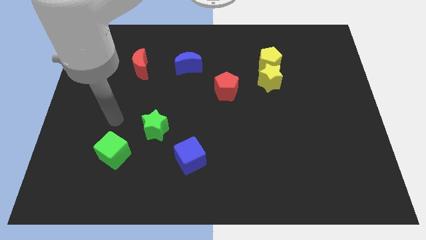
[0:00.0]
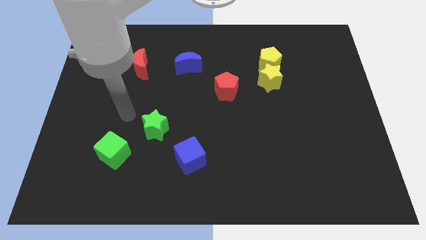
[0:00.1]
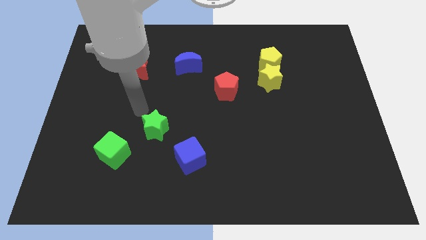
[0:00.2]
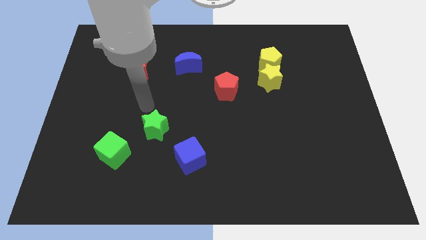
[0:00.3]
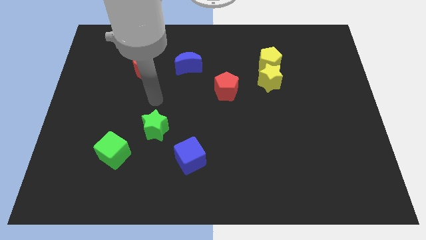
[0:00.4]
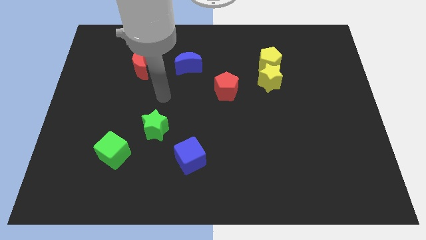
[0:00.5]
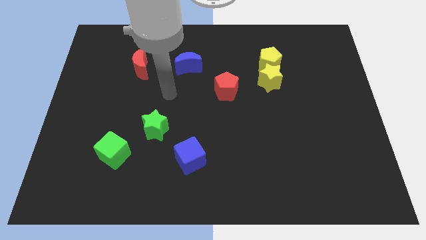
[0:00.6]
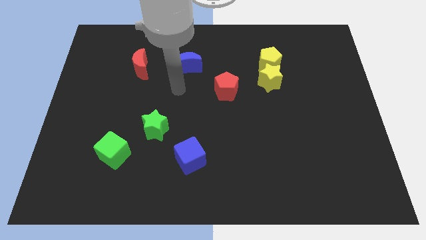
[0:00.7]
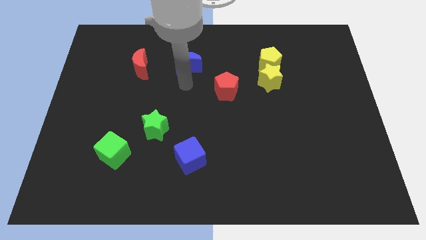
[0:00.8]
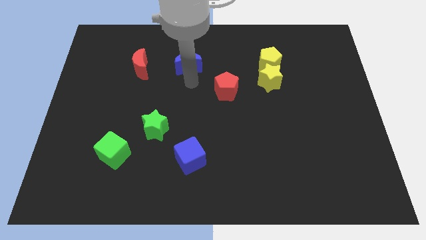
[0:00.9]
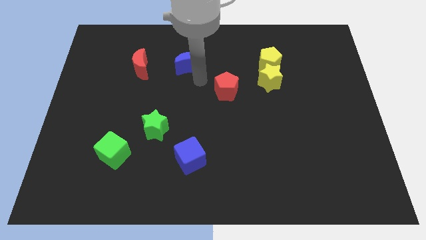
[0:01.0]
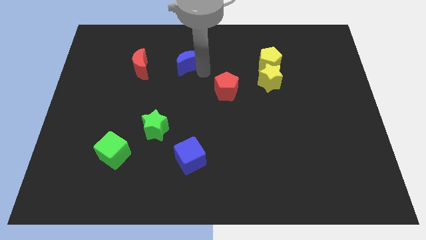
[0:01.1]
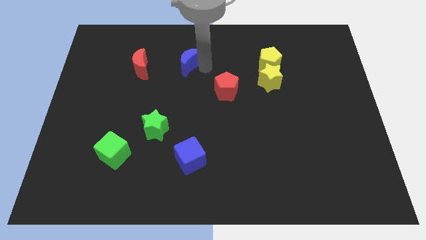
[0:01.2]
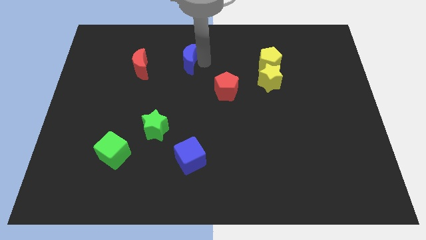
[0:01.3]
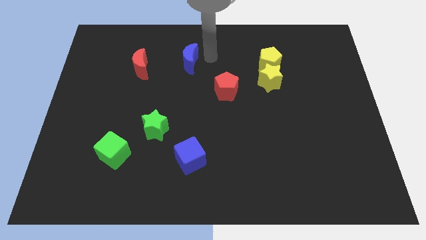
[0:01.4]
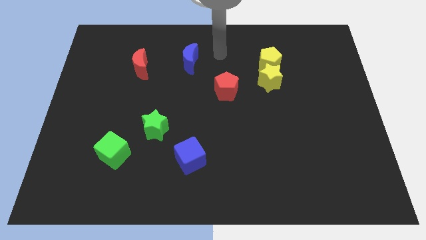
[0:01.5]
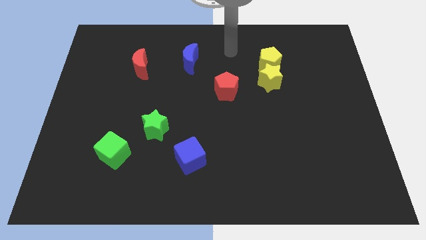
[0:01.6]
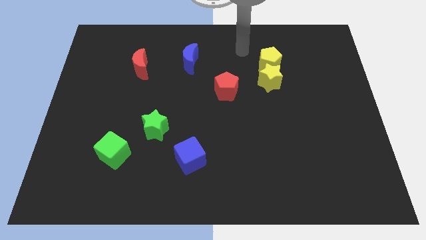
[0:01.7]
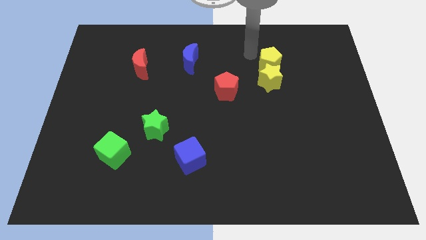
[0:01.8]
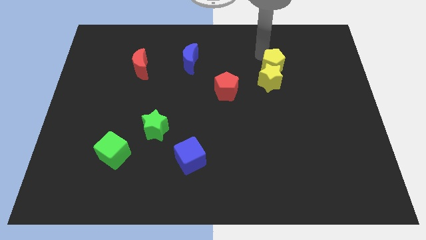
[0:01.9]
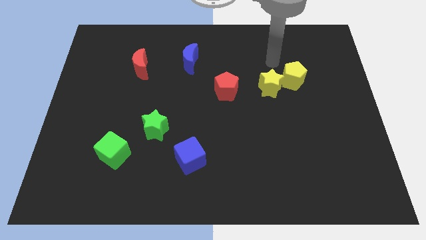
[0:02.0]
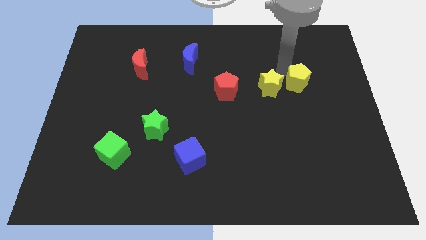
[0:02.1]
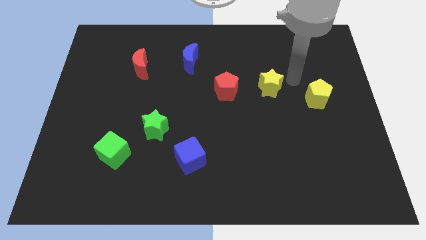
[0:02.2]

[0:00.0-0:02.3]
separate the yellow star from the yellow pentagon

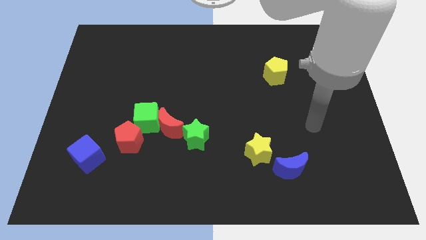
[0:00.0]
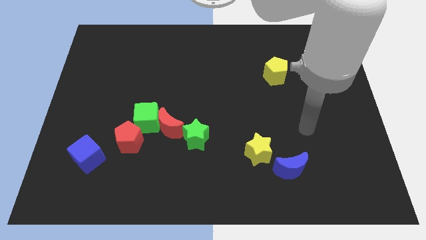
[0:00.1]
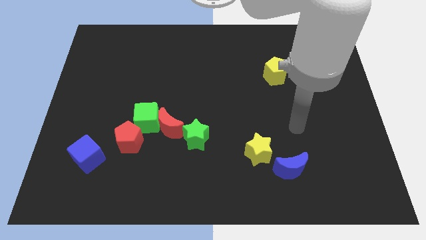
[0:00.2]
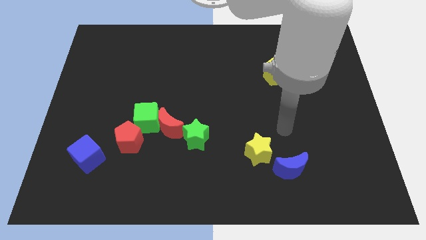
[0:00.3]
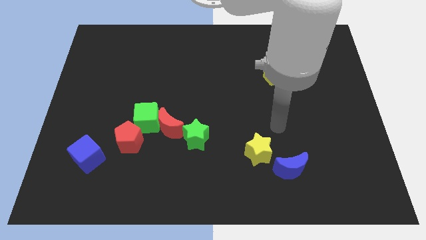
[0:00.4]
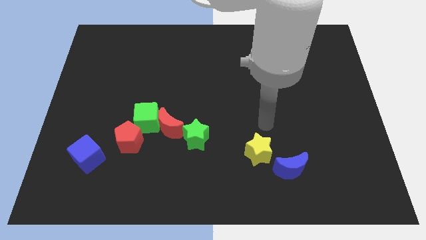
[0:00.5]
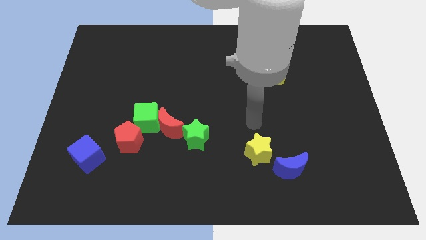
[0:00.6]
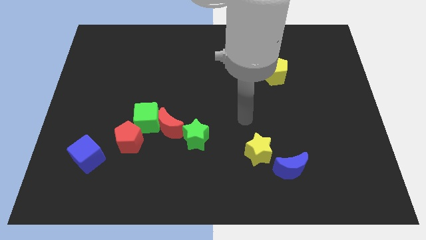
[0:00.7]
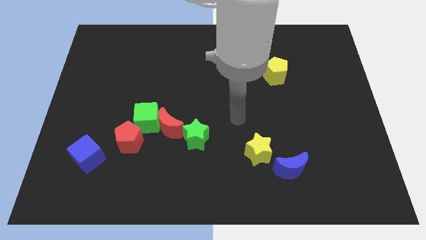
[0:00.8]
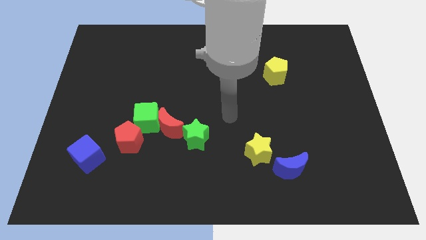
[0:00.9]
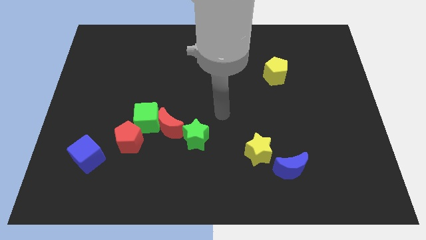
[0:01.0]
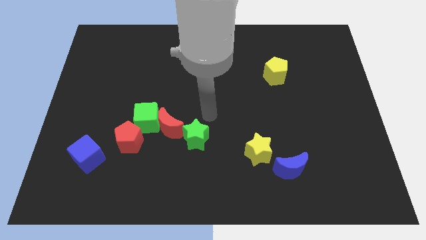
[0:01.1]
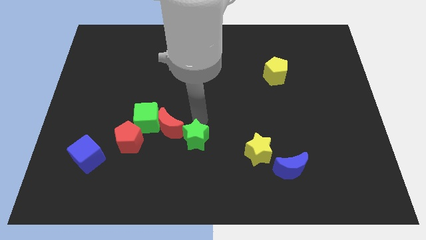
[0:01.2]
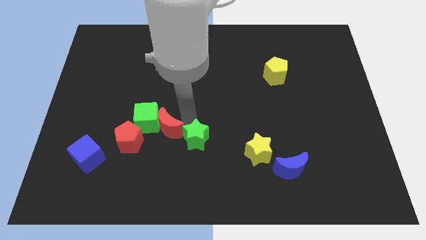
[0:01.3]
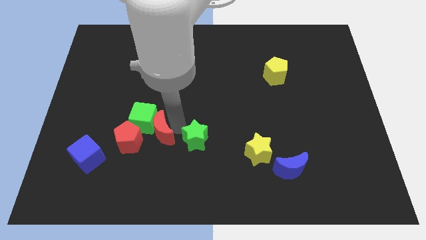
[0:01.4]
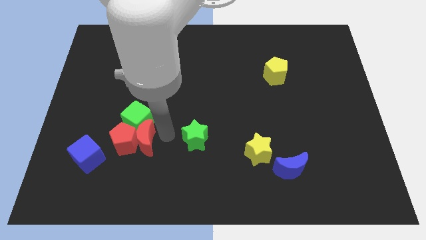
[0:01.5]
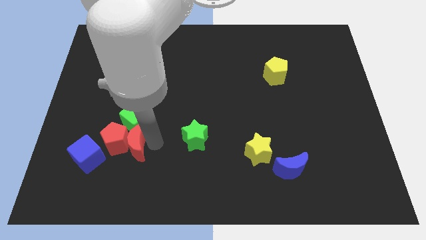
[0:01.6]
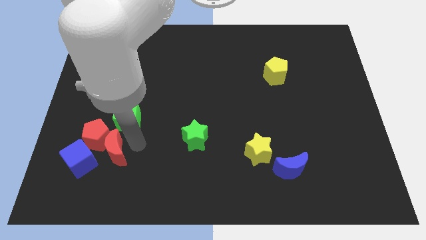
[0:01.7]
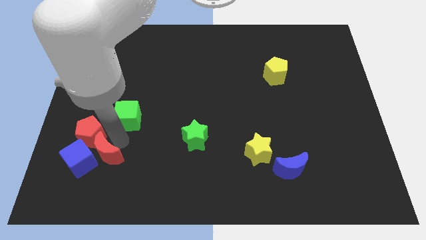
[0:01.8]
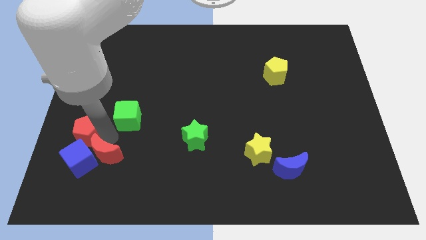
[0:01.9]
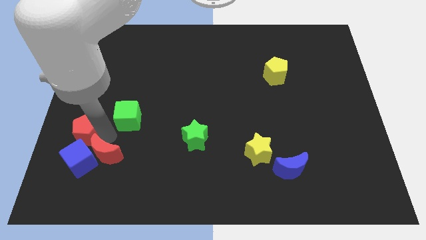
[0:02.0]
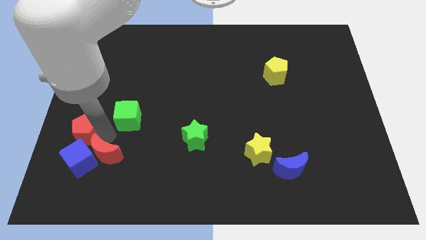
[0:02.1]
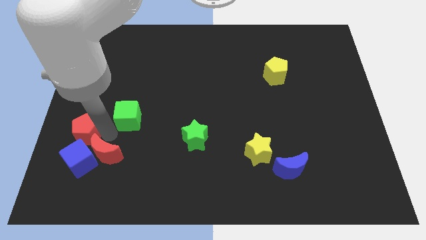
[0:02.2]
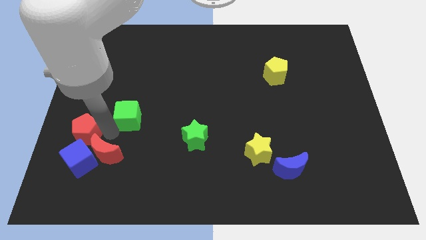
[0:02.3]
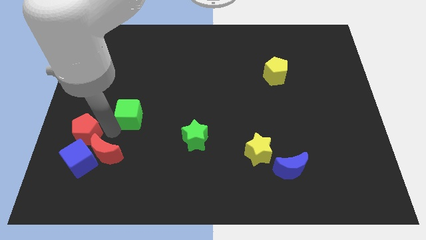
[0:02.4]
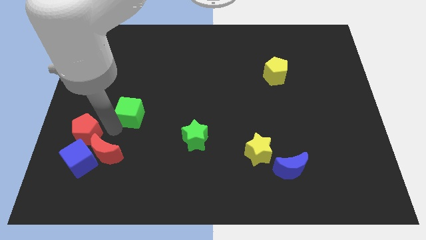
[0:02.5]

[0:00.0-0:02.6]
pull the green cube apart from the red moon and red pentagon

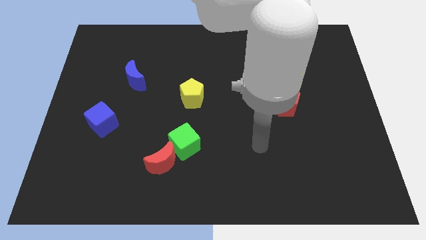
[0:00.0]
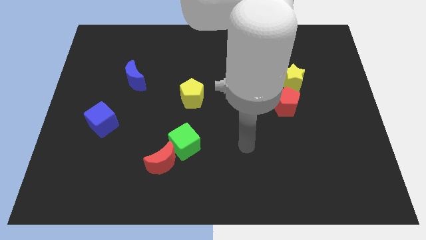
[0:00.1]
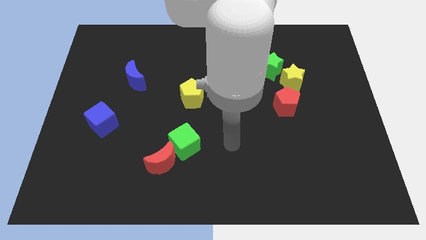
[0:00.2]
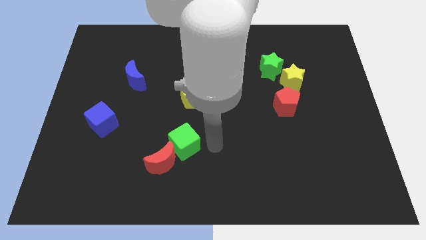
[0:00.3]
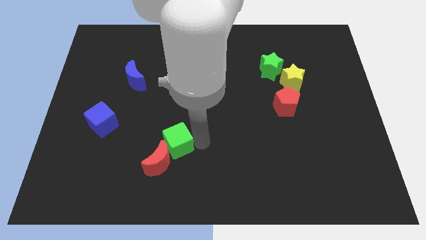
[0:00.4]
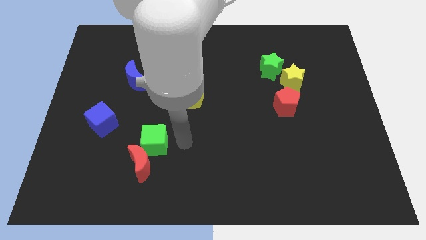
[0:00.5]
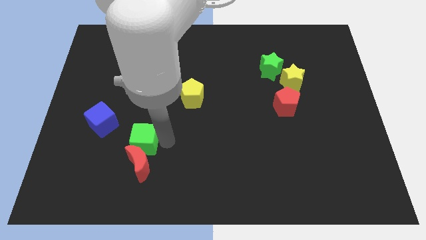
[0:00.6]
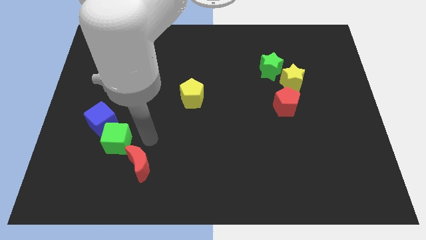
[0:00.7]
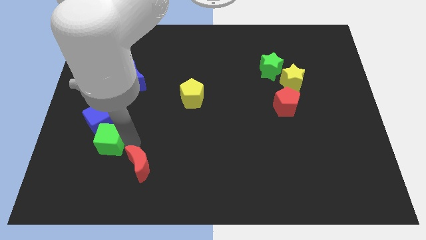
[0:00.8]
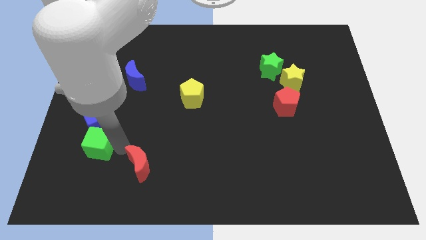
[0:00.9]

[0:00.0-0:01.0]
move the red moon away from the green cube

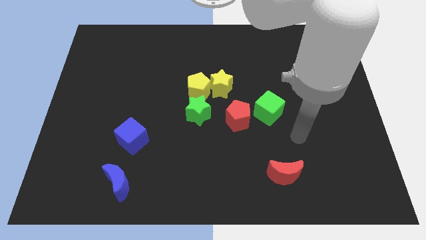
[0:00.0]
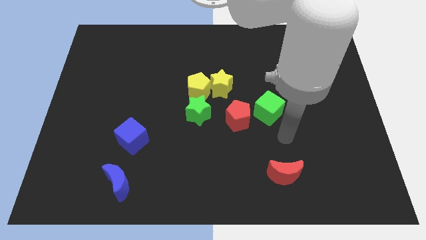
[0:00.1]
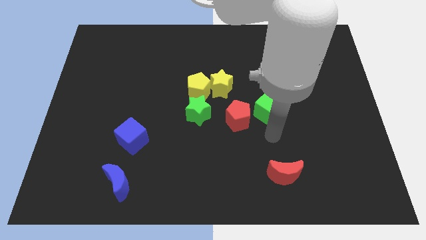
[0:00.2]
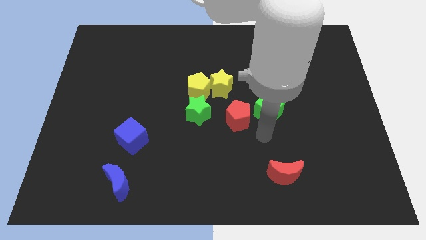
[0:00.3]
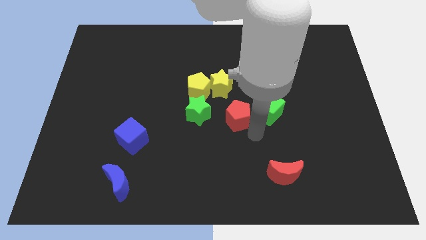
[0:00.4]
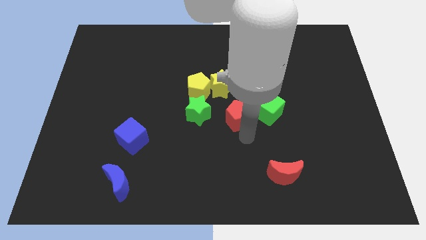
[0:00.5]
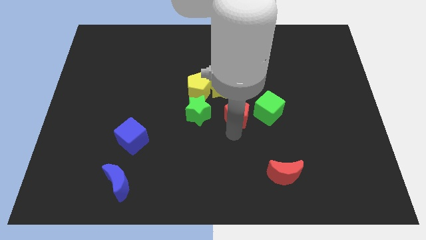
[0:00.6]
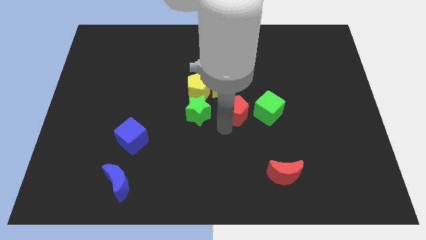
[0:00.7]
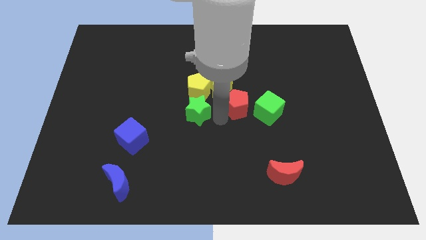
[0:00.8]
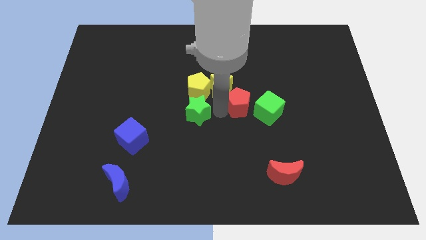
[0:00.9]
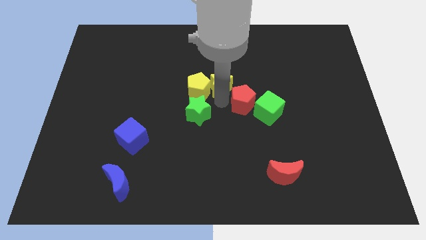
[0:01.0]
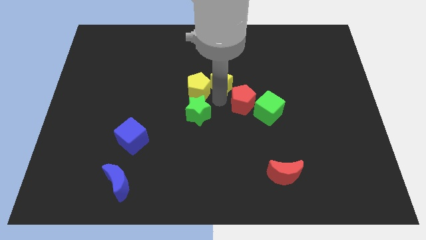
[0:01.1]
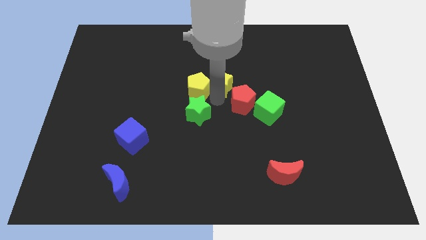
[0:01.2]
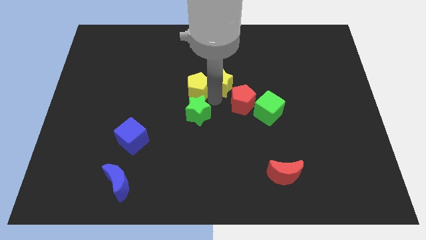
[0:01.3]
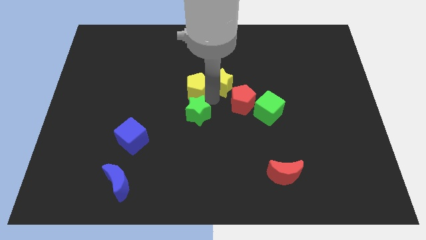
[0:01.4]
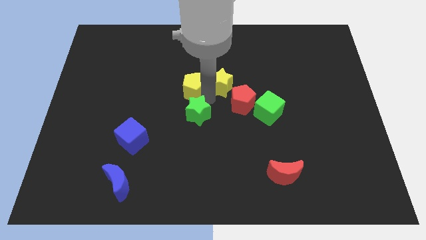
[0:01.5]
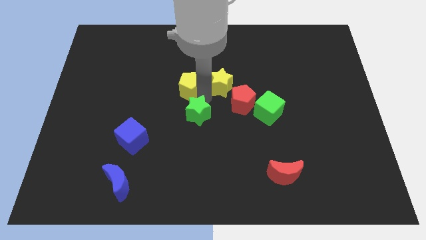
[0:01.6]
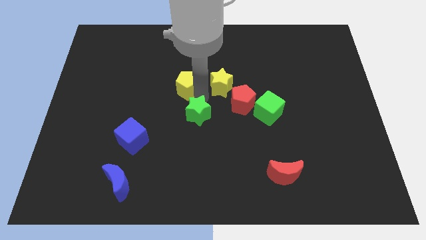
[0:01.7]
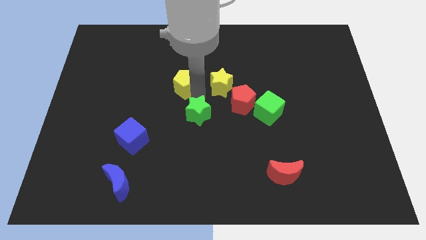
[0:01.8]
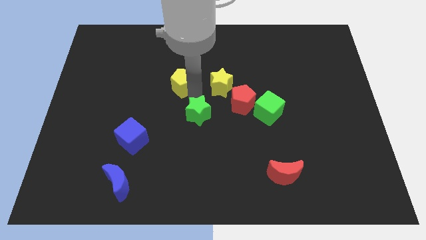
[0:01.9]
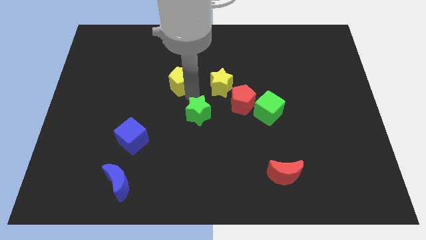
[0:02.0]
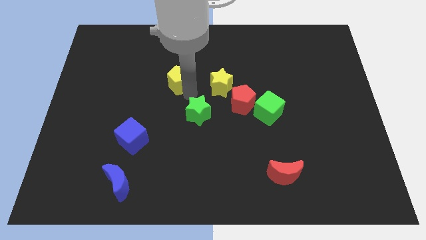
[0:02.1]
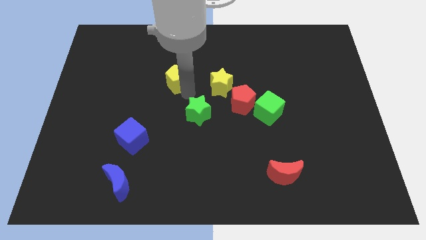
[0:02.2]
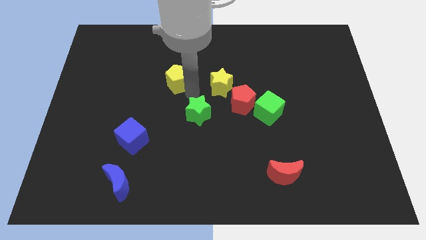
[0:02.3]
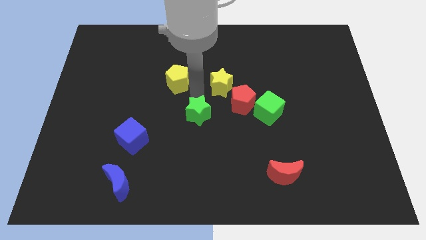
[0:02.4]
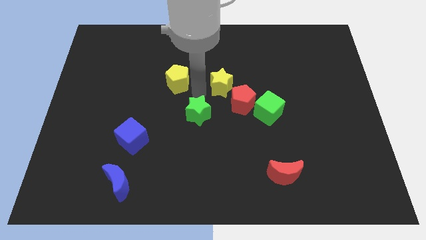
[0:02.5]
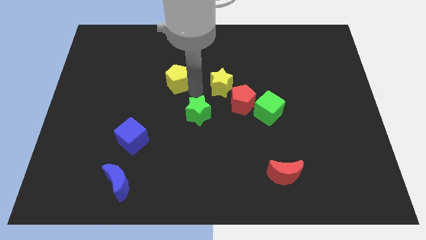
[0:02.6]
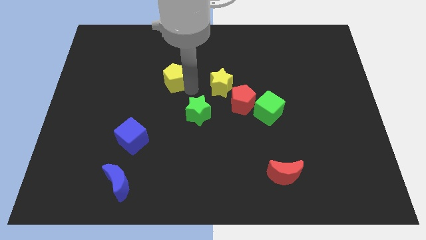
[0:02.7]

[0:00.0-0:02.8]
separate the yellow pentagon from the yellow star and green star

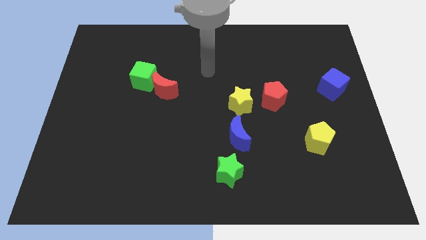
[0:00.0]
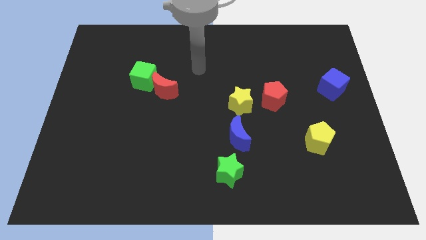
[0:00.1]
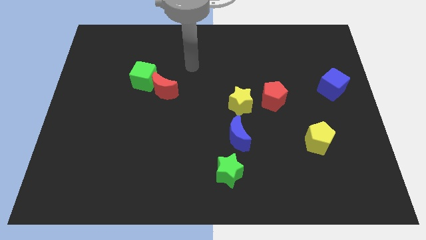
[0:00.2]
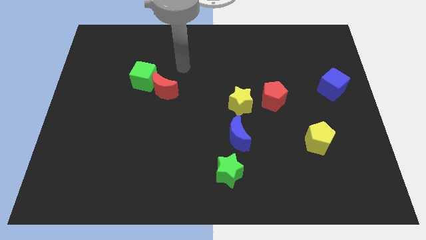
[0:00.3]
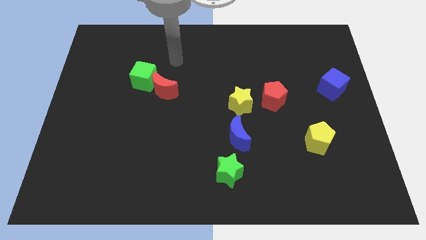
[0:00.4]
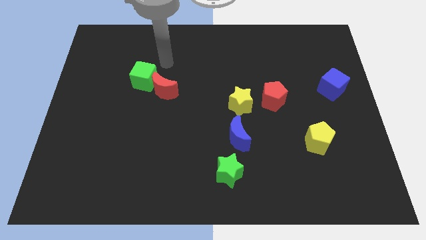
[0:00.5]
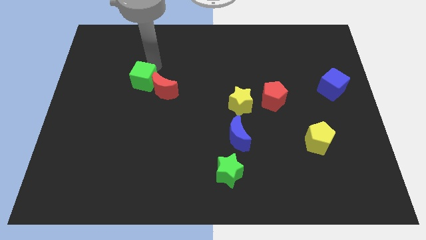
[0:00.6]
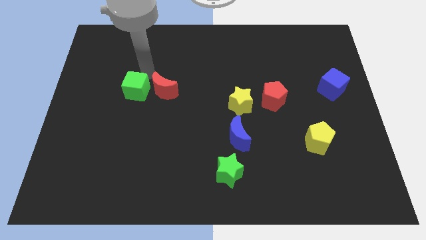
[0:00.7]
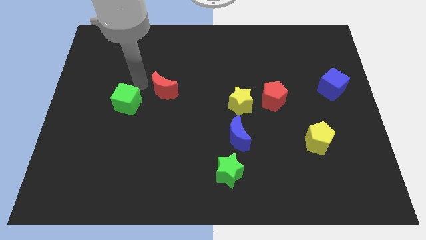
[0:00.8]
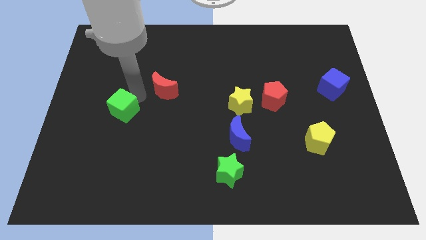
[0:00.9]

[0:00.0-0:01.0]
pull the red moon apart from the green cube
